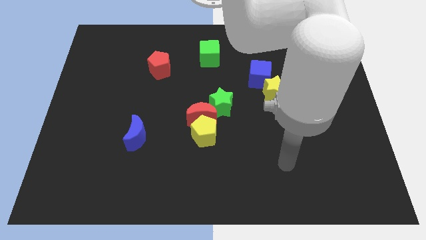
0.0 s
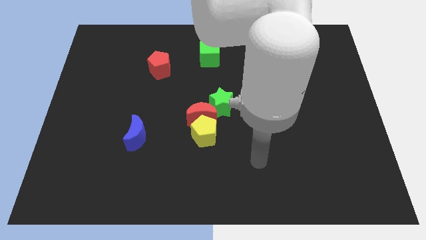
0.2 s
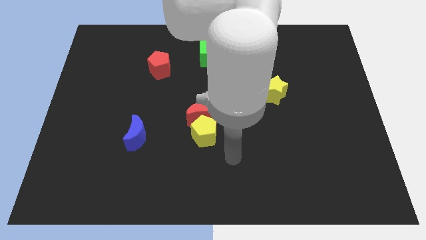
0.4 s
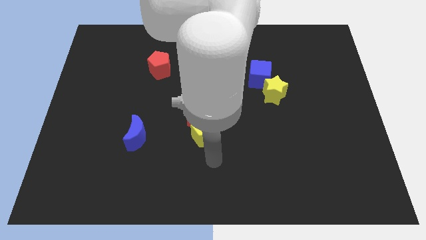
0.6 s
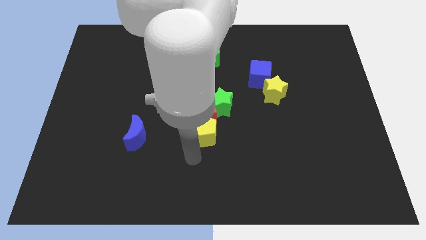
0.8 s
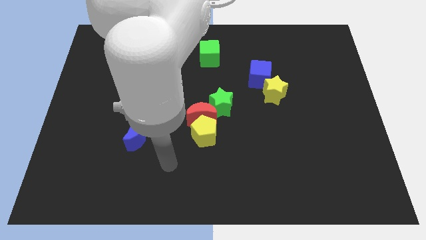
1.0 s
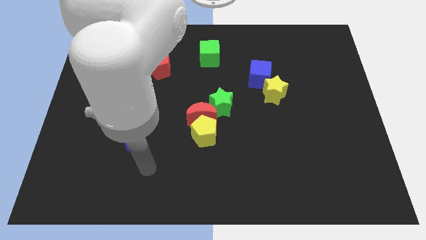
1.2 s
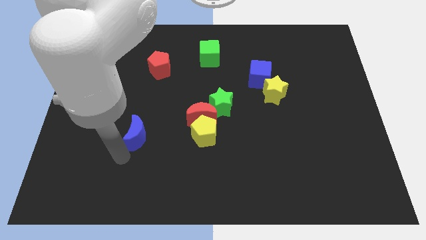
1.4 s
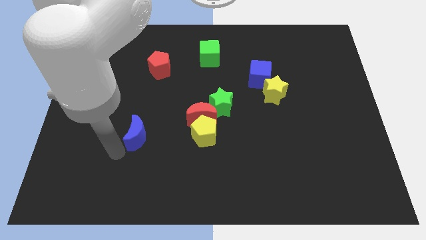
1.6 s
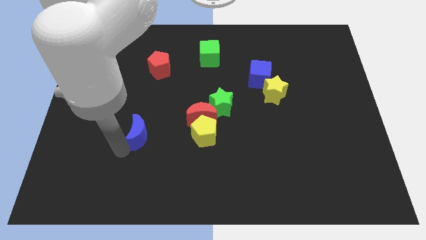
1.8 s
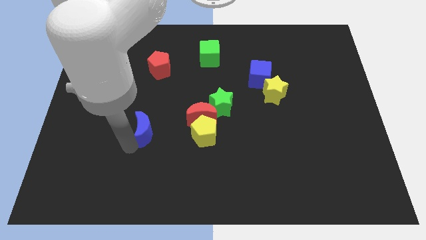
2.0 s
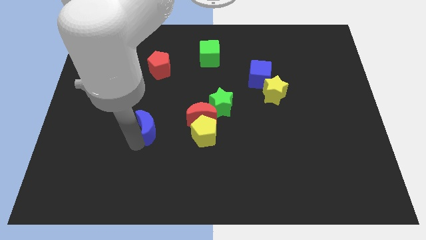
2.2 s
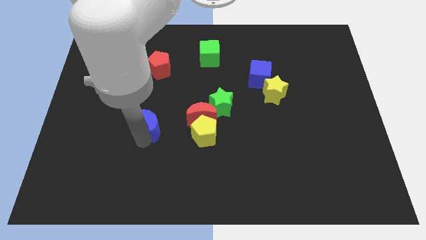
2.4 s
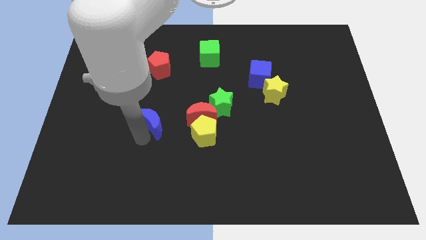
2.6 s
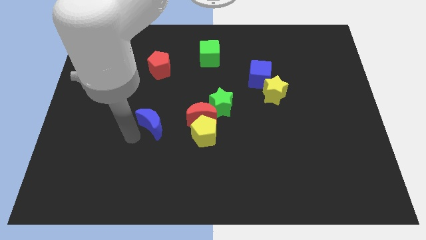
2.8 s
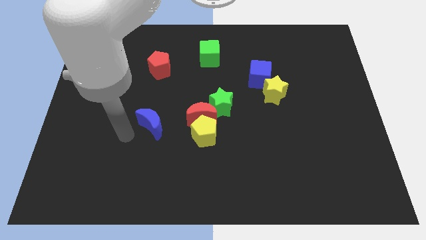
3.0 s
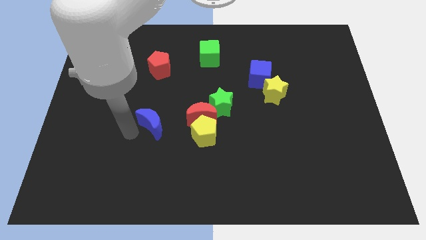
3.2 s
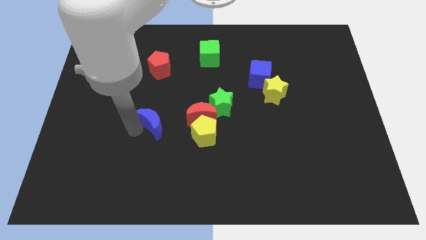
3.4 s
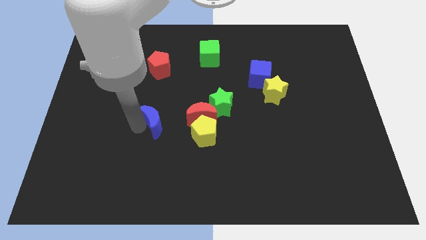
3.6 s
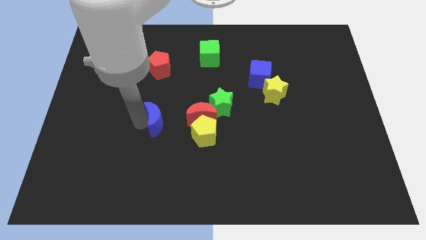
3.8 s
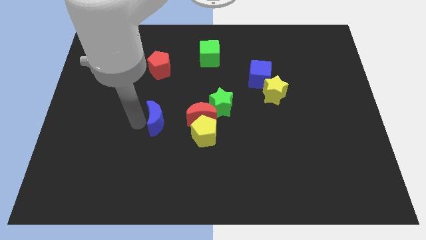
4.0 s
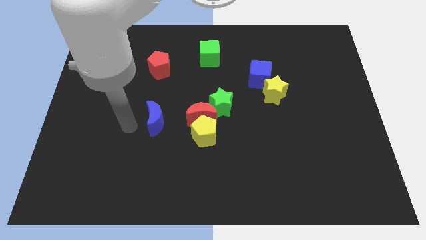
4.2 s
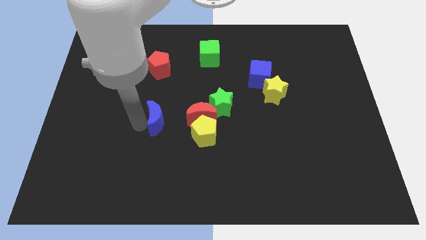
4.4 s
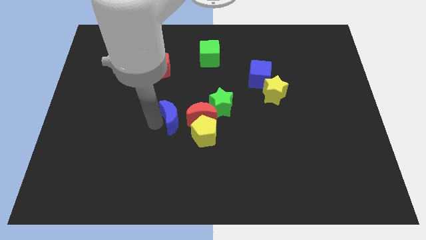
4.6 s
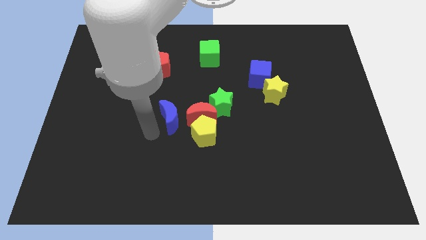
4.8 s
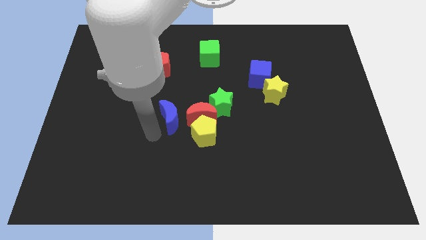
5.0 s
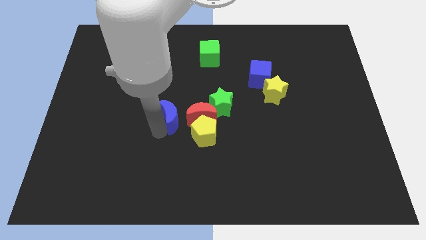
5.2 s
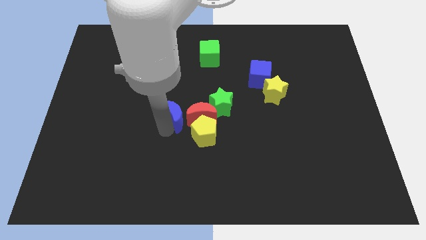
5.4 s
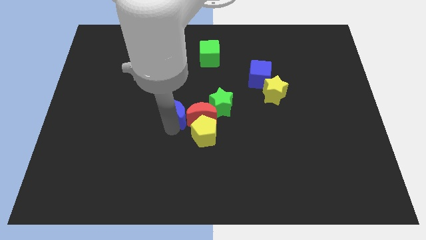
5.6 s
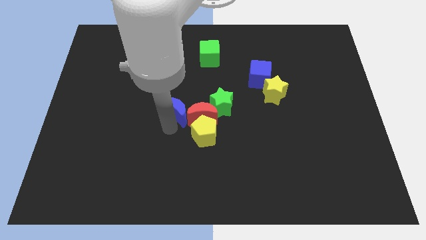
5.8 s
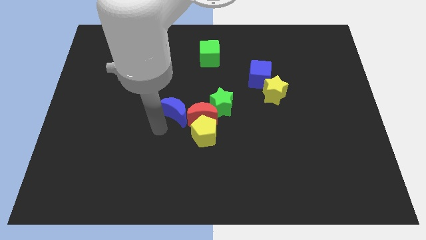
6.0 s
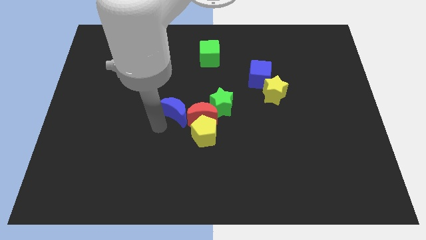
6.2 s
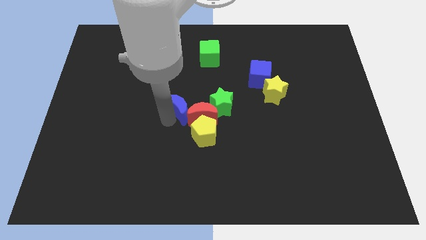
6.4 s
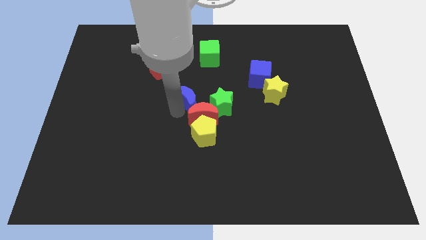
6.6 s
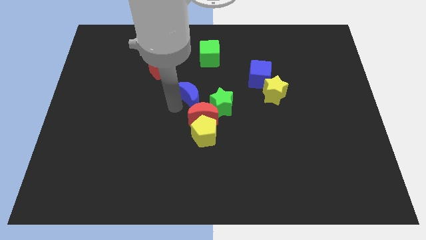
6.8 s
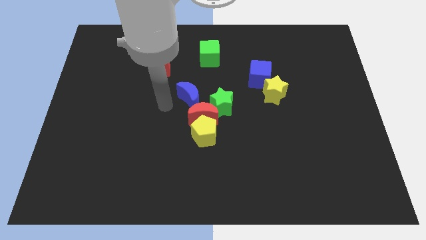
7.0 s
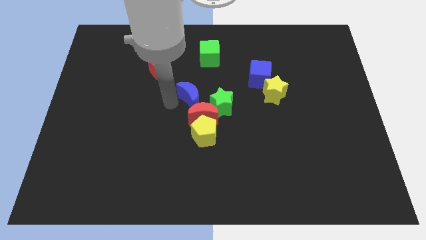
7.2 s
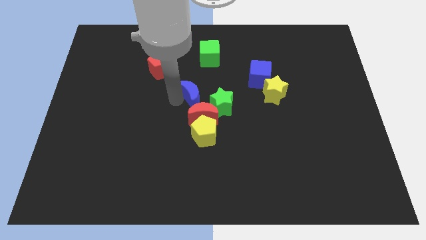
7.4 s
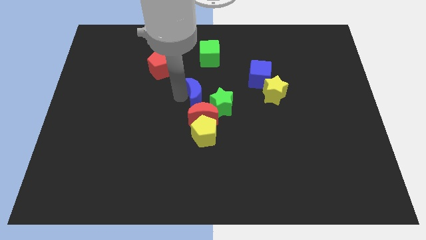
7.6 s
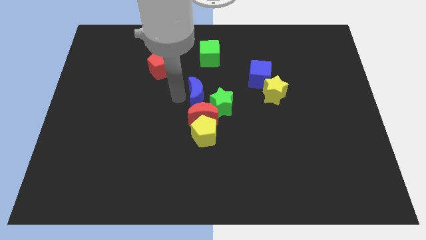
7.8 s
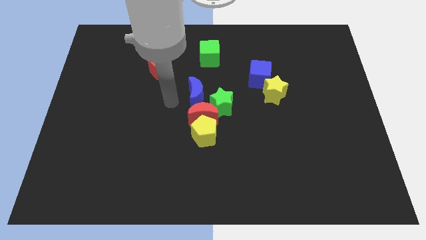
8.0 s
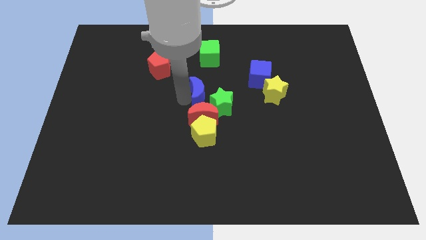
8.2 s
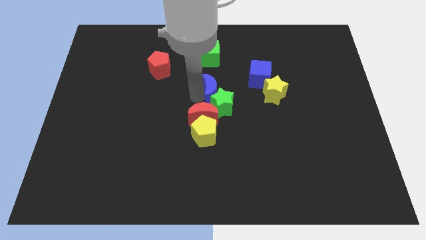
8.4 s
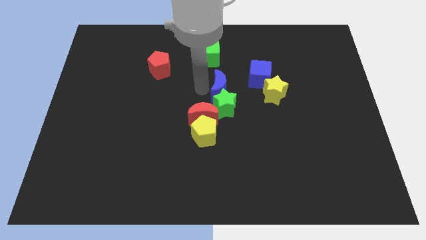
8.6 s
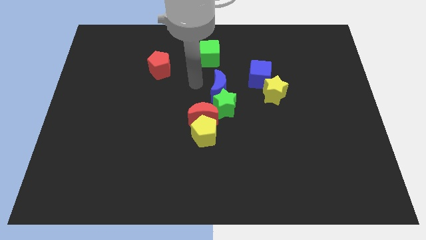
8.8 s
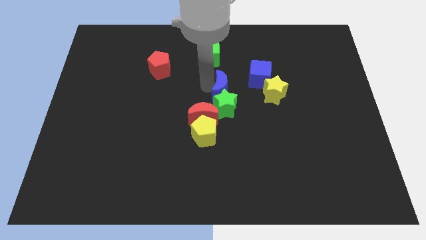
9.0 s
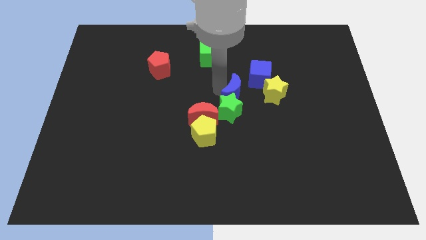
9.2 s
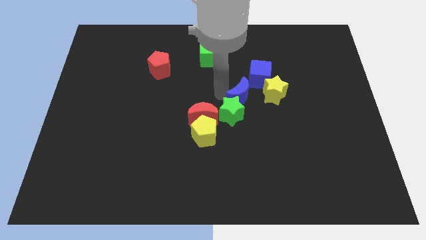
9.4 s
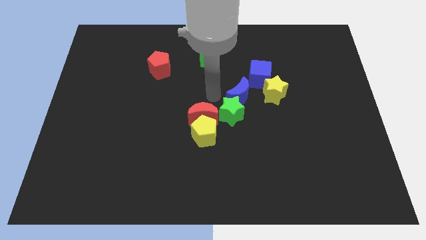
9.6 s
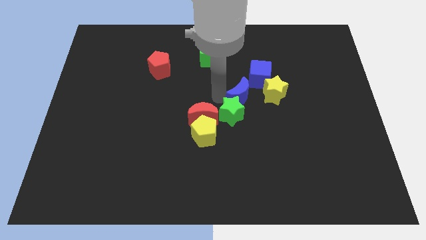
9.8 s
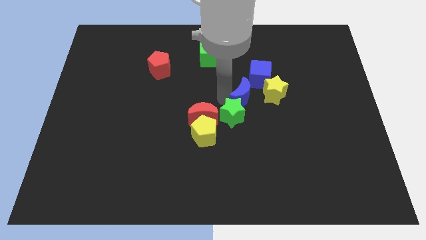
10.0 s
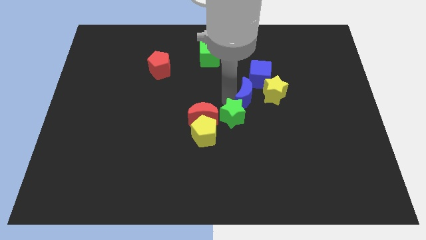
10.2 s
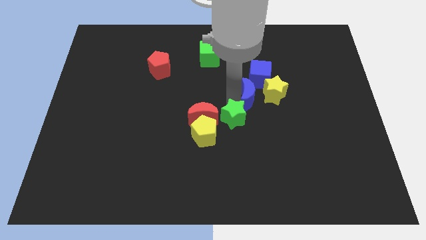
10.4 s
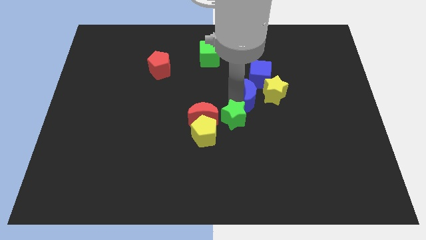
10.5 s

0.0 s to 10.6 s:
slide the blue moon next to the yellow star

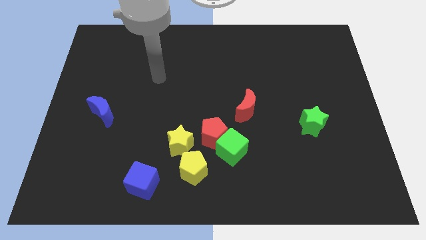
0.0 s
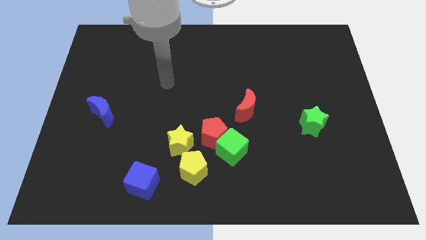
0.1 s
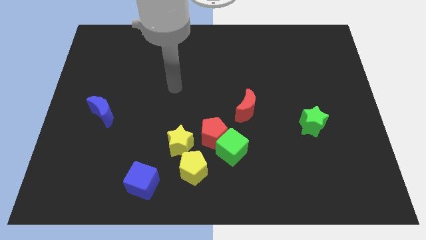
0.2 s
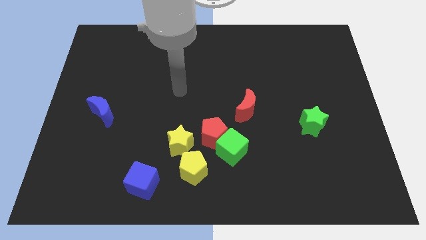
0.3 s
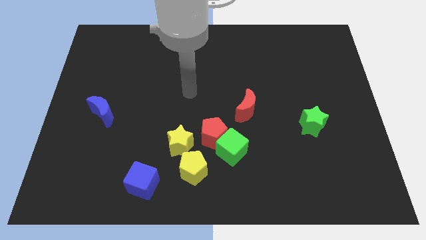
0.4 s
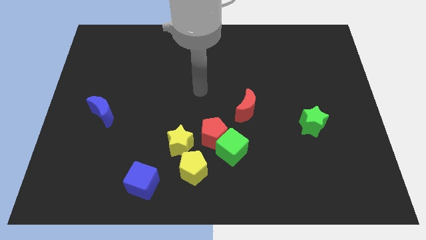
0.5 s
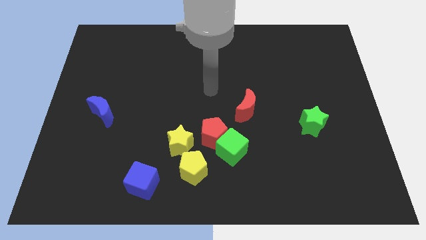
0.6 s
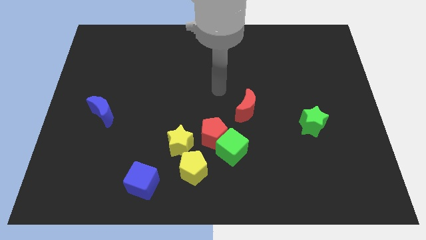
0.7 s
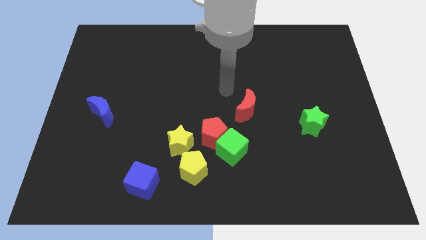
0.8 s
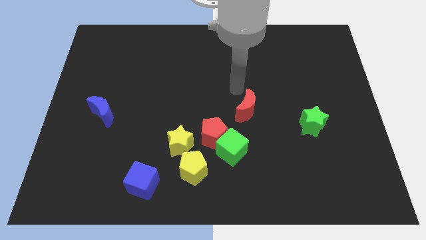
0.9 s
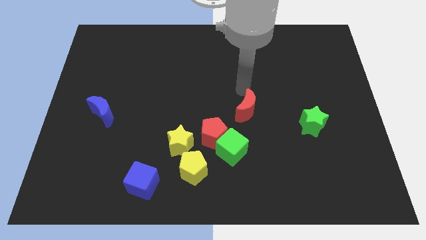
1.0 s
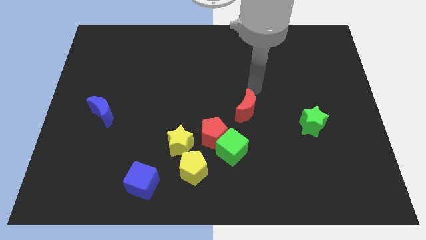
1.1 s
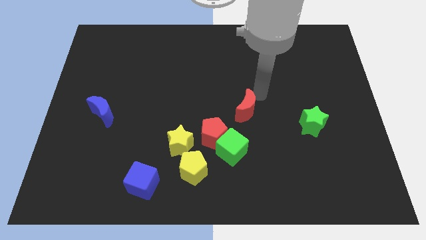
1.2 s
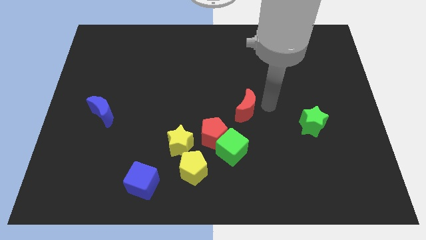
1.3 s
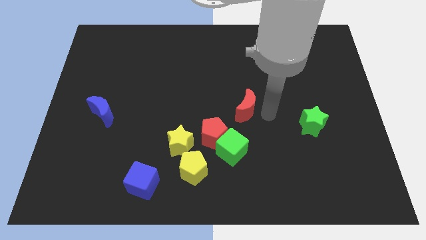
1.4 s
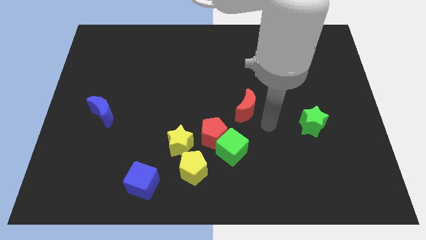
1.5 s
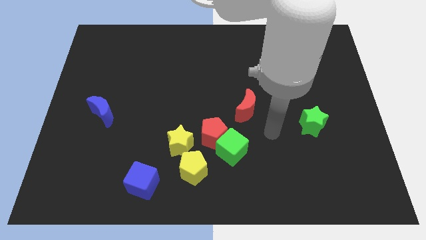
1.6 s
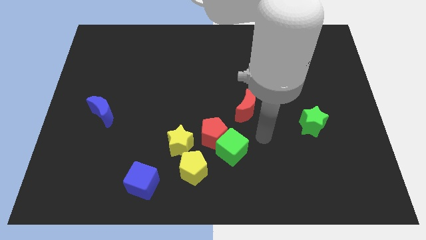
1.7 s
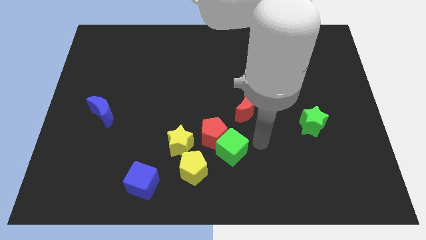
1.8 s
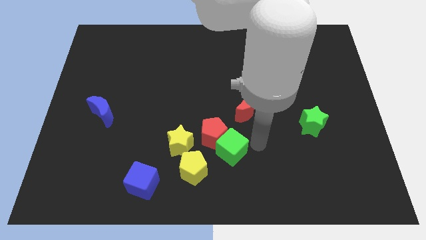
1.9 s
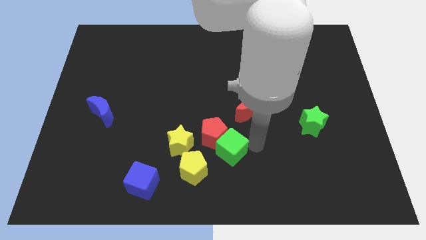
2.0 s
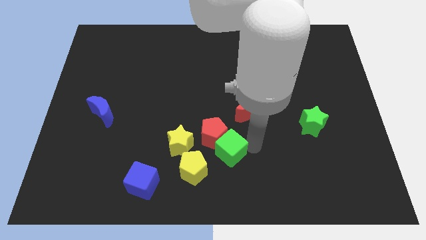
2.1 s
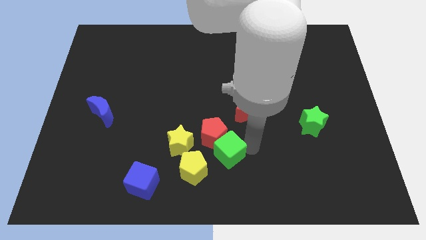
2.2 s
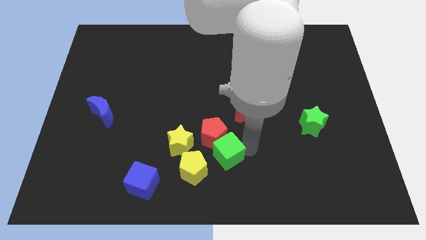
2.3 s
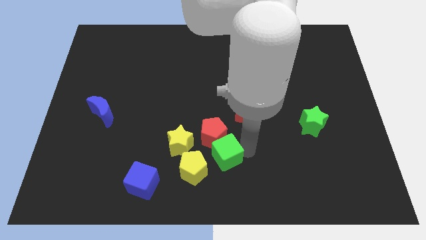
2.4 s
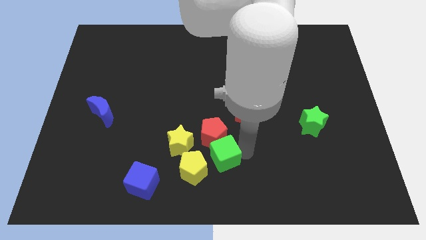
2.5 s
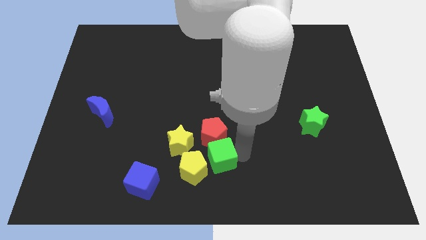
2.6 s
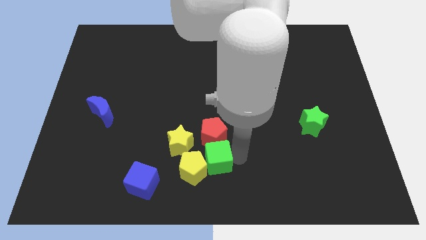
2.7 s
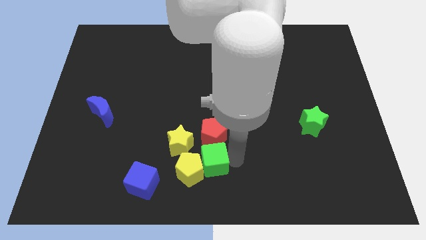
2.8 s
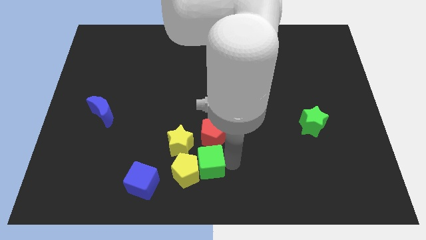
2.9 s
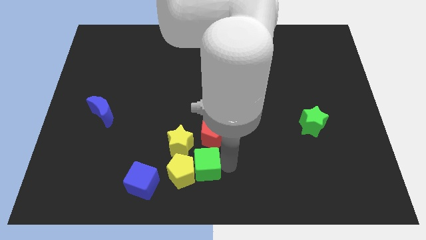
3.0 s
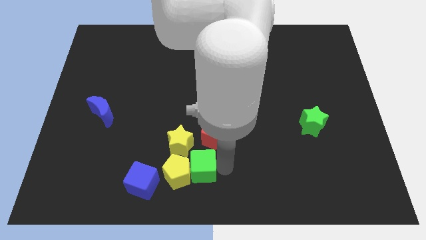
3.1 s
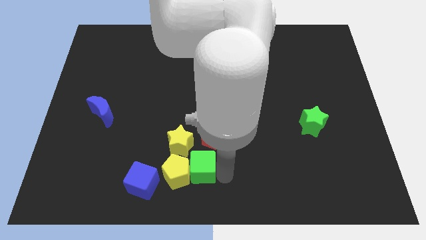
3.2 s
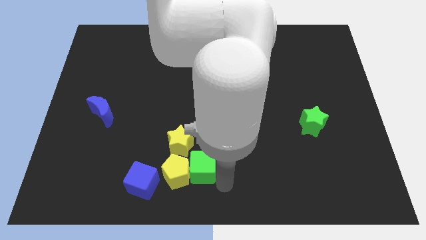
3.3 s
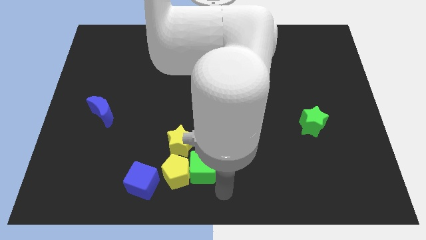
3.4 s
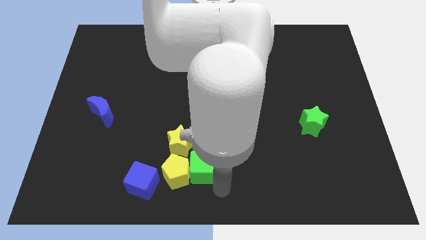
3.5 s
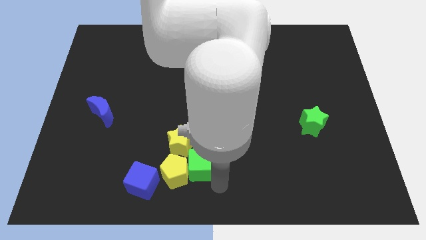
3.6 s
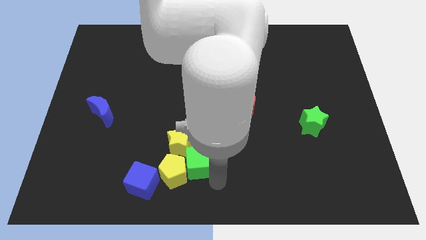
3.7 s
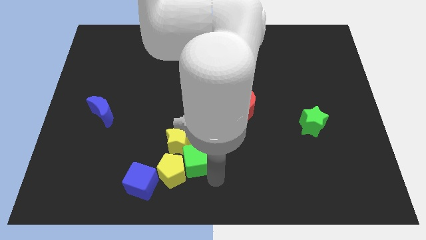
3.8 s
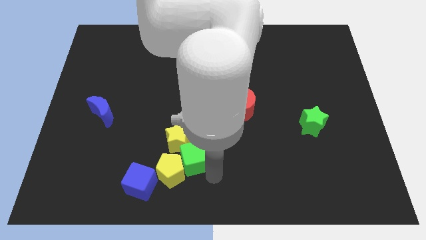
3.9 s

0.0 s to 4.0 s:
slide the green cube next to the yellow star
